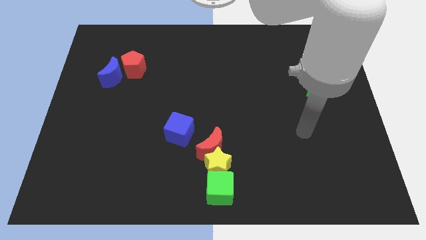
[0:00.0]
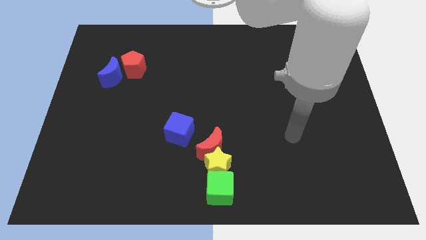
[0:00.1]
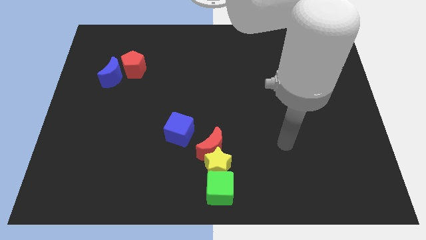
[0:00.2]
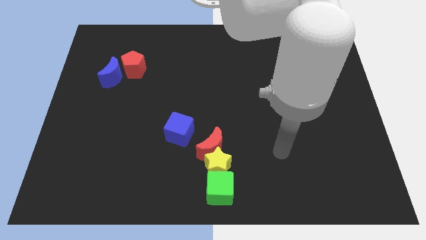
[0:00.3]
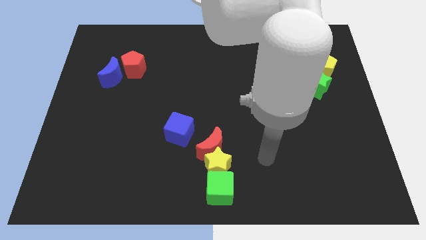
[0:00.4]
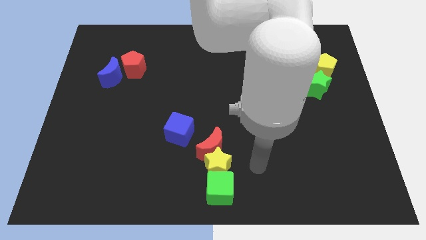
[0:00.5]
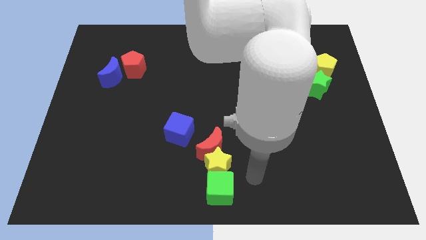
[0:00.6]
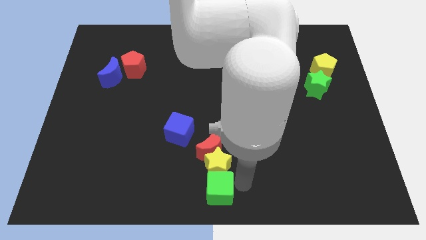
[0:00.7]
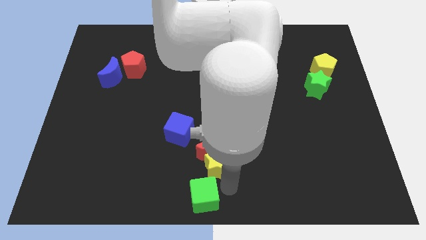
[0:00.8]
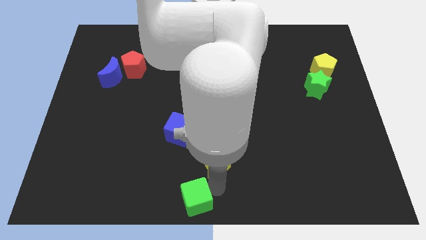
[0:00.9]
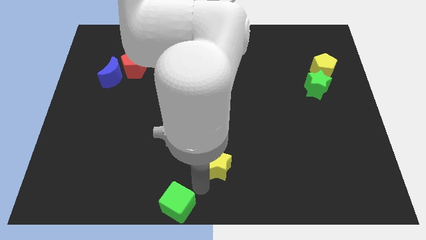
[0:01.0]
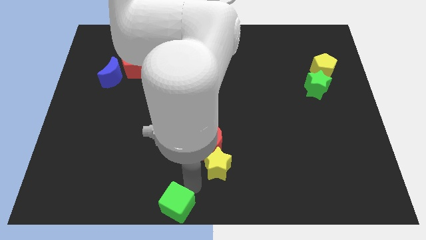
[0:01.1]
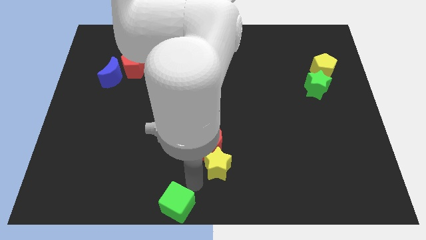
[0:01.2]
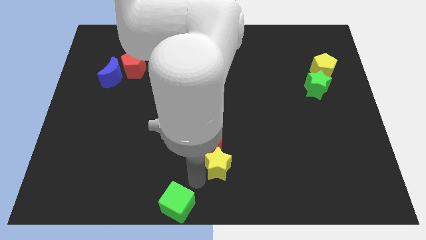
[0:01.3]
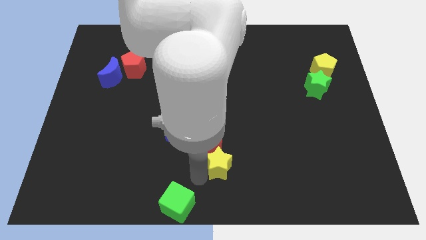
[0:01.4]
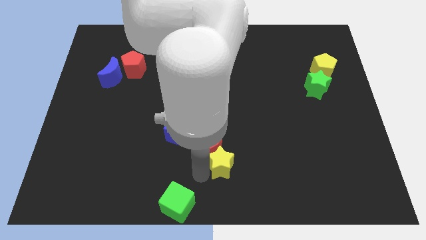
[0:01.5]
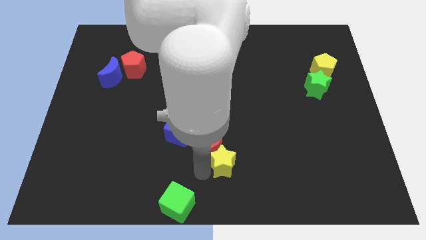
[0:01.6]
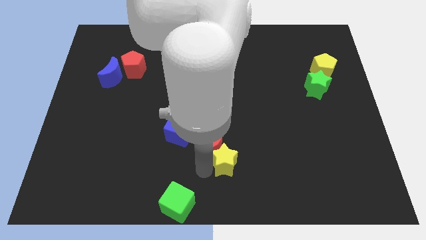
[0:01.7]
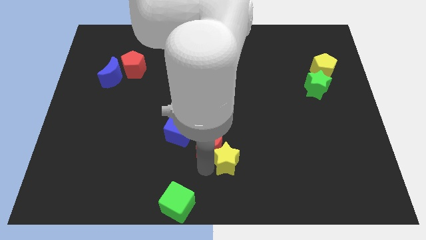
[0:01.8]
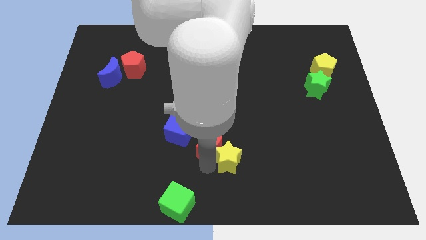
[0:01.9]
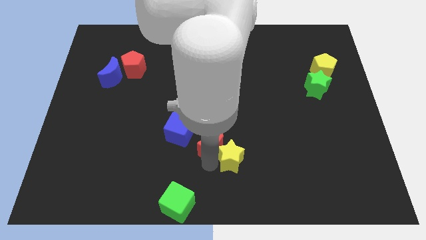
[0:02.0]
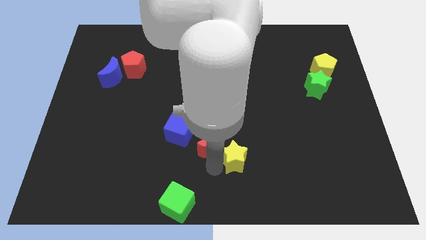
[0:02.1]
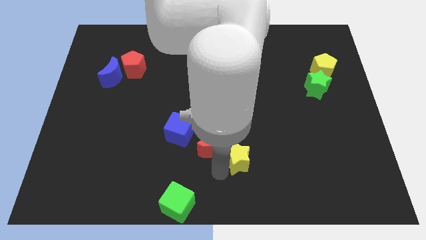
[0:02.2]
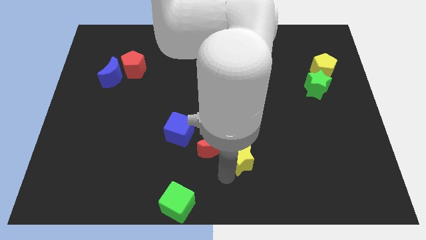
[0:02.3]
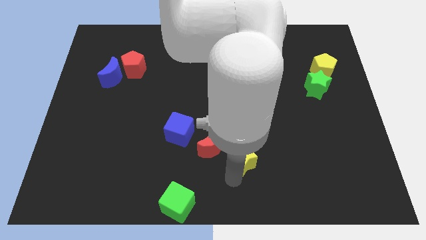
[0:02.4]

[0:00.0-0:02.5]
separate the yellow star from the red moon and green cube

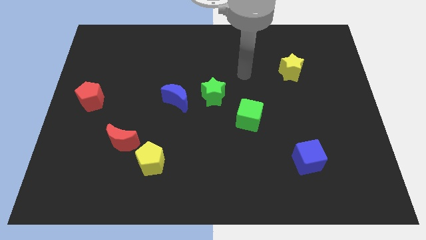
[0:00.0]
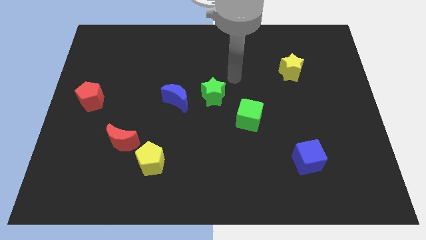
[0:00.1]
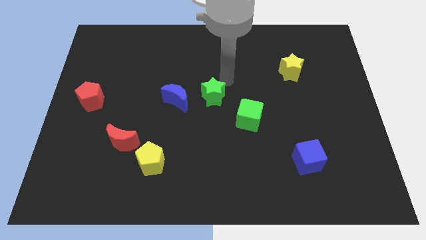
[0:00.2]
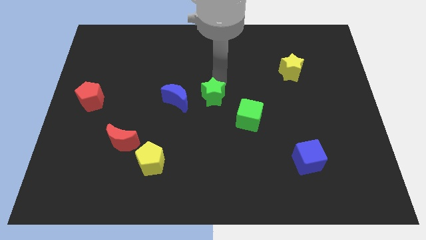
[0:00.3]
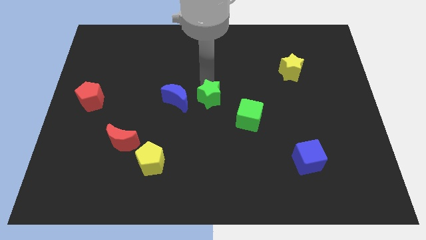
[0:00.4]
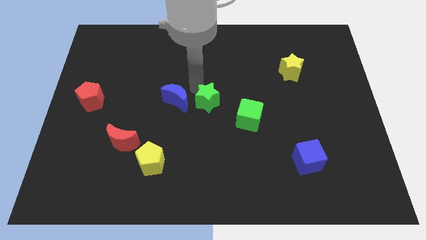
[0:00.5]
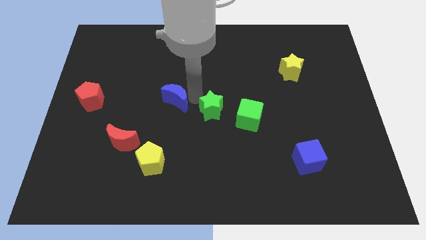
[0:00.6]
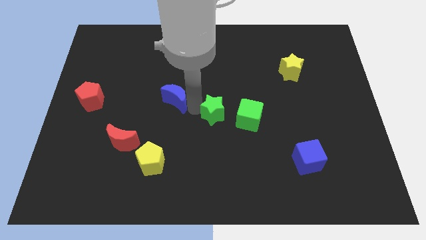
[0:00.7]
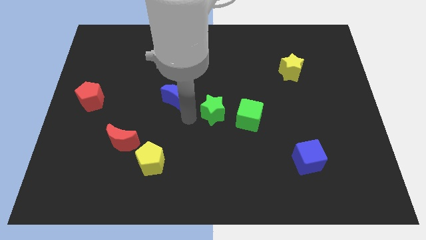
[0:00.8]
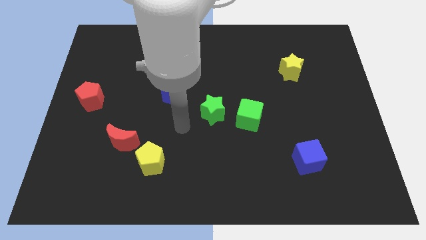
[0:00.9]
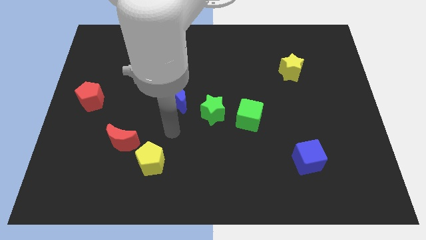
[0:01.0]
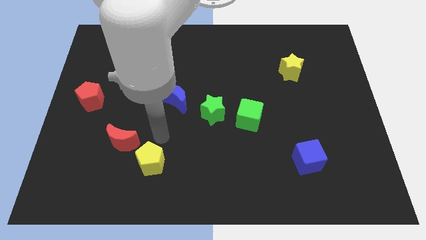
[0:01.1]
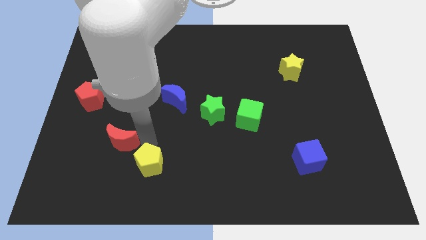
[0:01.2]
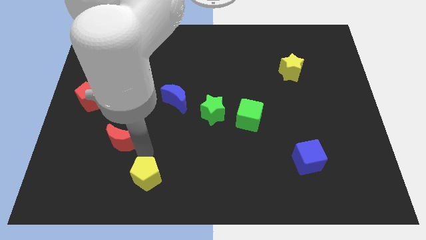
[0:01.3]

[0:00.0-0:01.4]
move the red moon away from the yellow pentagon

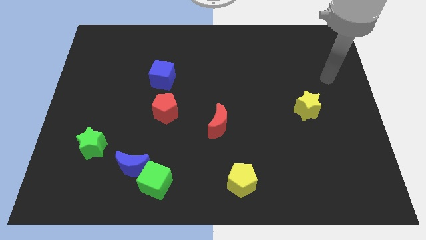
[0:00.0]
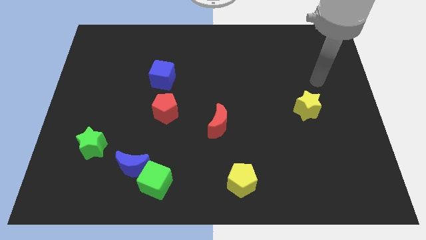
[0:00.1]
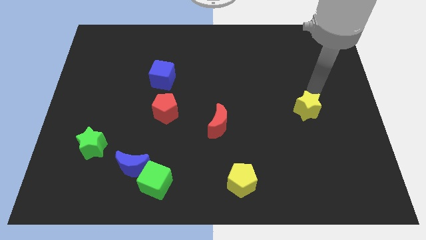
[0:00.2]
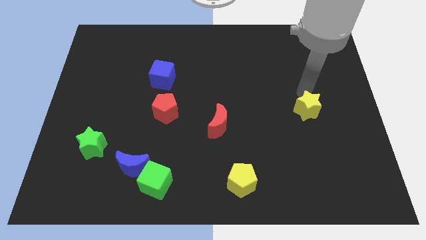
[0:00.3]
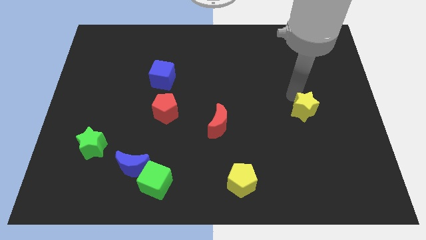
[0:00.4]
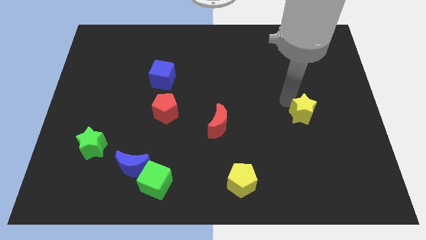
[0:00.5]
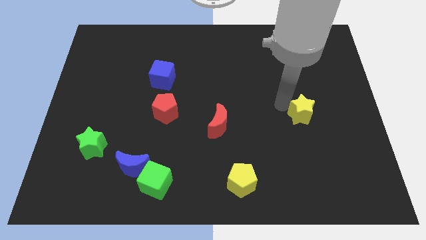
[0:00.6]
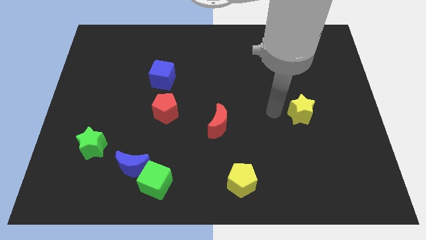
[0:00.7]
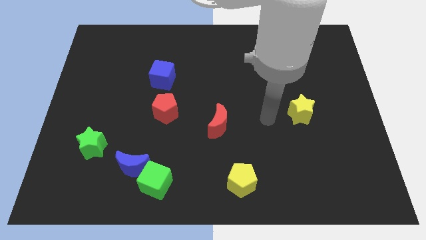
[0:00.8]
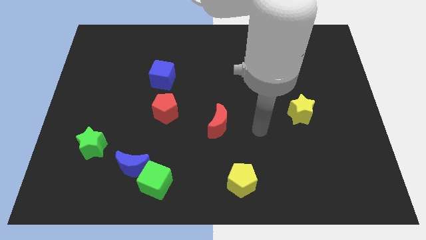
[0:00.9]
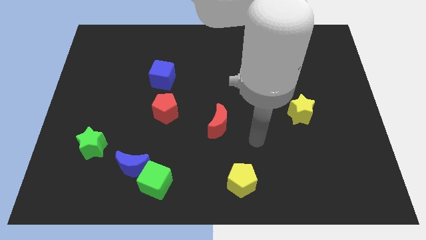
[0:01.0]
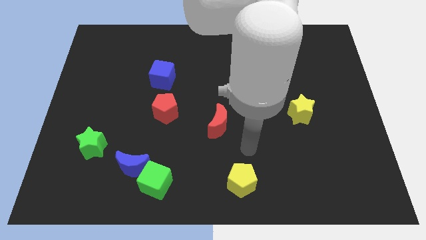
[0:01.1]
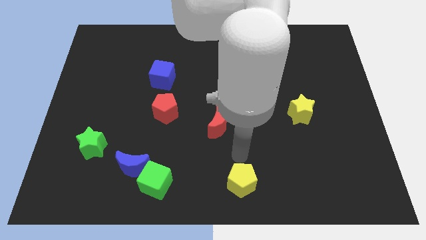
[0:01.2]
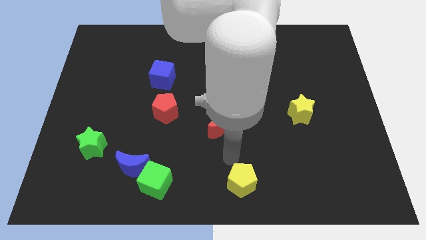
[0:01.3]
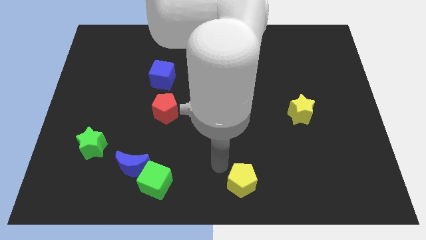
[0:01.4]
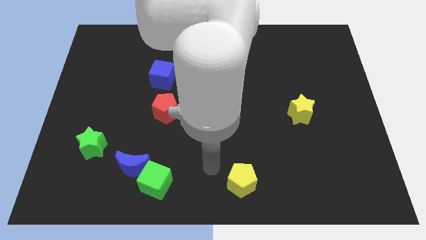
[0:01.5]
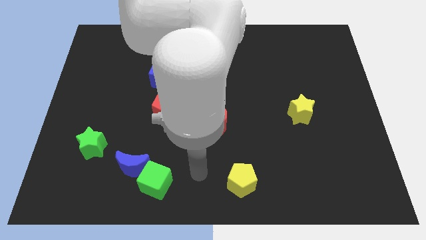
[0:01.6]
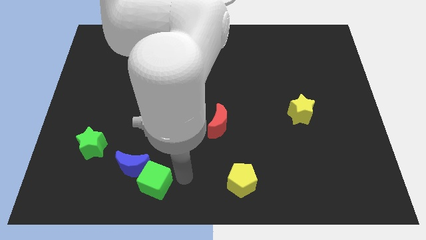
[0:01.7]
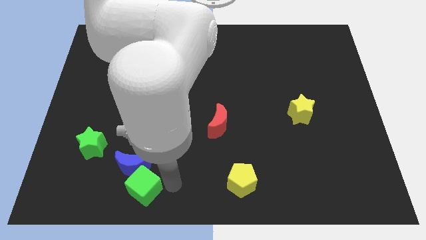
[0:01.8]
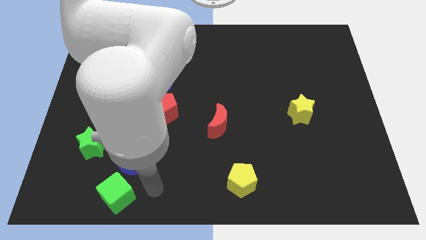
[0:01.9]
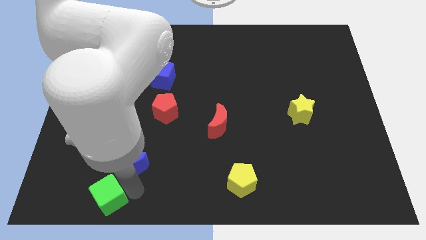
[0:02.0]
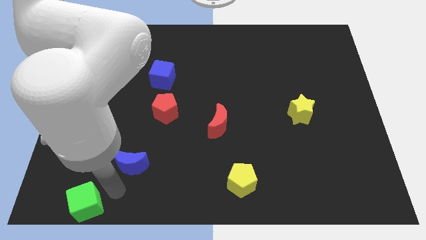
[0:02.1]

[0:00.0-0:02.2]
pull the blue moon apart from the green cube

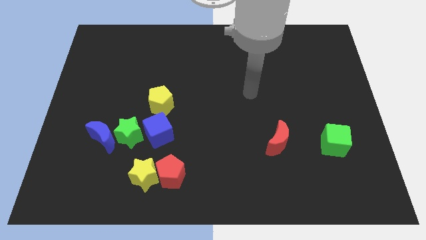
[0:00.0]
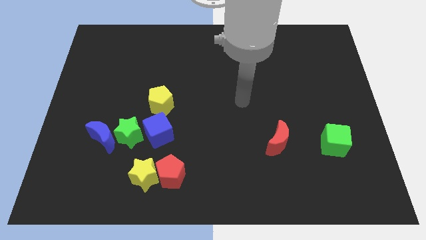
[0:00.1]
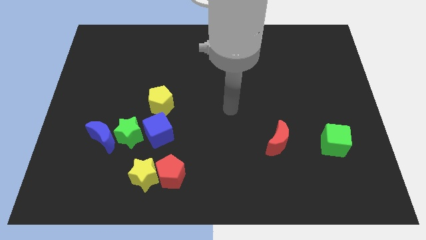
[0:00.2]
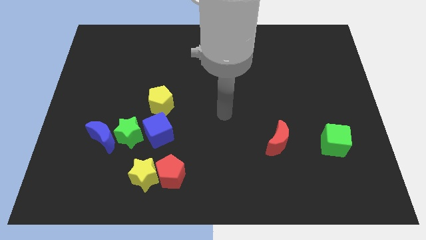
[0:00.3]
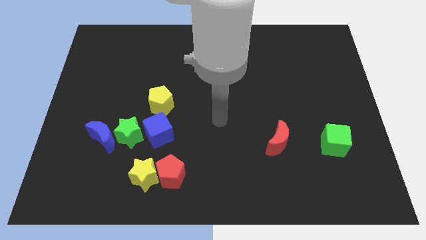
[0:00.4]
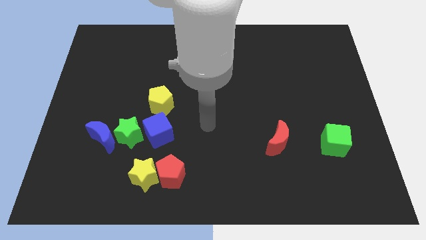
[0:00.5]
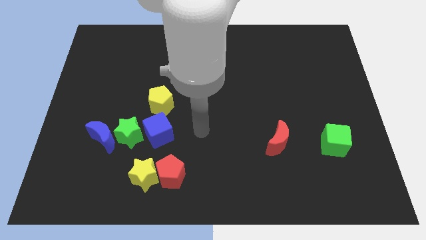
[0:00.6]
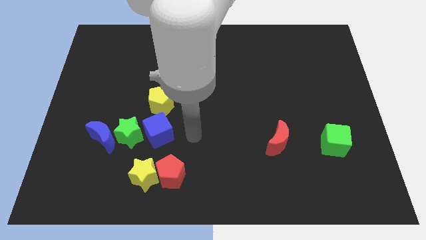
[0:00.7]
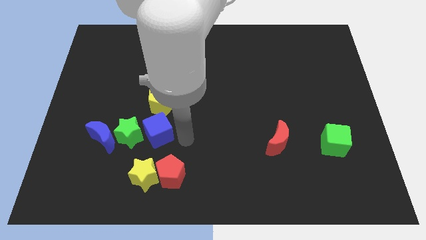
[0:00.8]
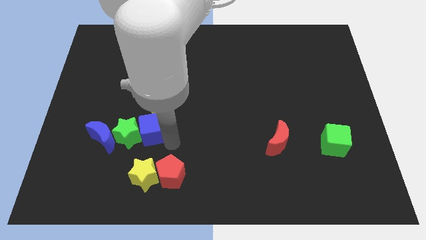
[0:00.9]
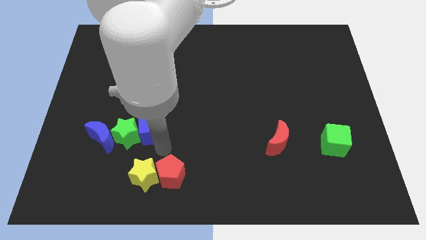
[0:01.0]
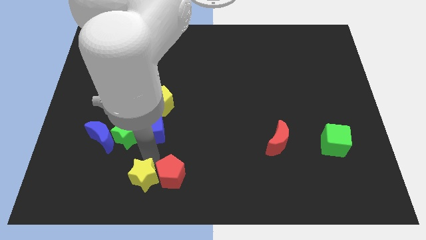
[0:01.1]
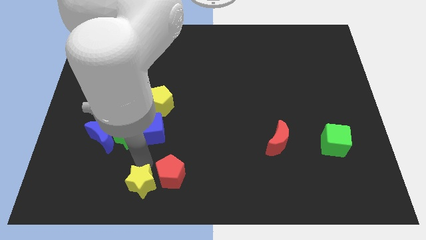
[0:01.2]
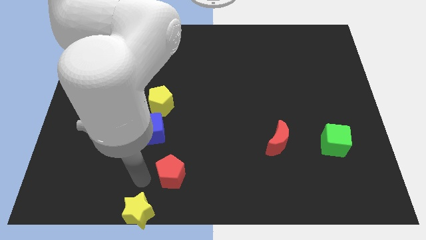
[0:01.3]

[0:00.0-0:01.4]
separate the red pentagon from the yellow star

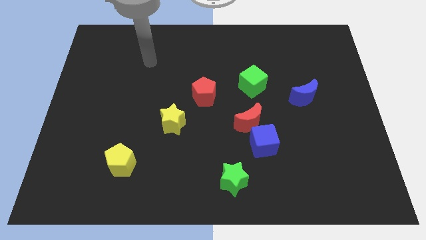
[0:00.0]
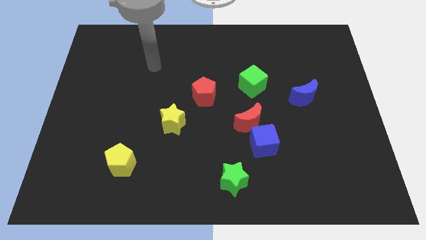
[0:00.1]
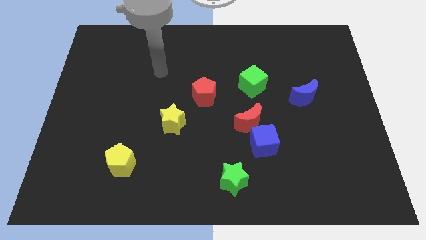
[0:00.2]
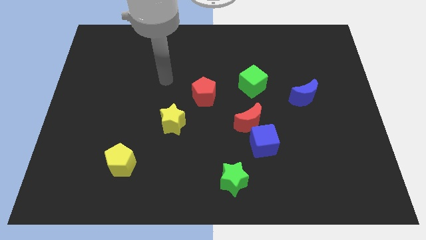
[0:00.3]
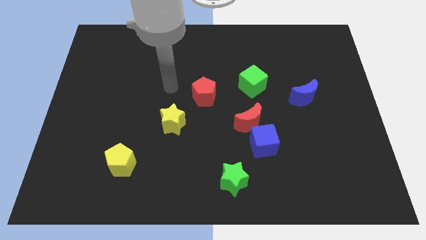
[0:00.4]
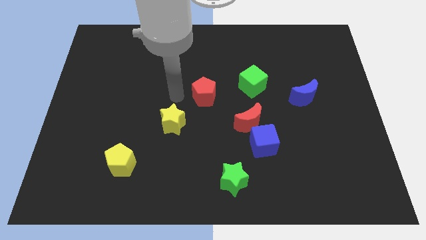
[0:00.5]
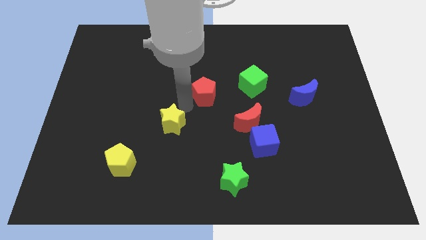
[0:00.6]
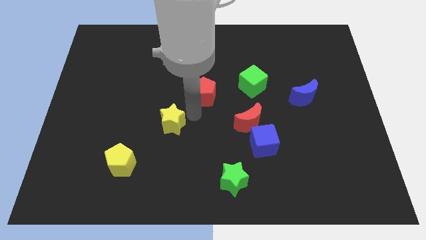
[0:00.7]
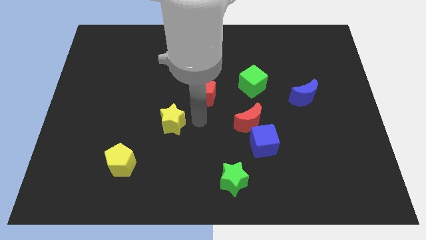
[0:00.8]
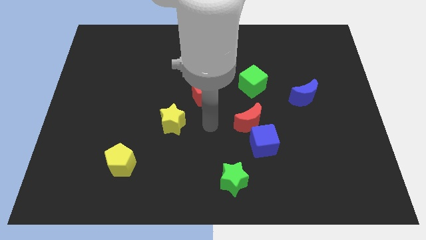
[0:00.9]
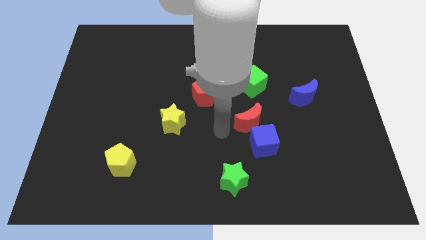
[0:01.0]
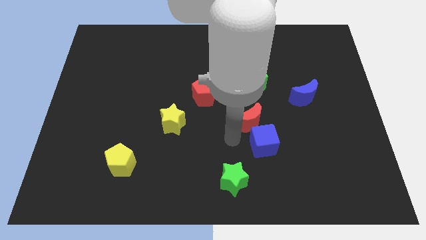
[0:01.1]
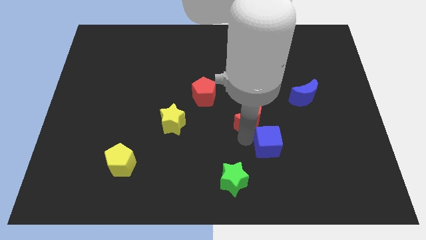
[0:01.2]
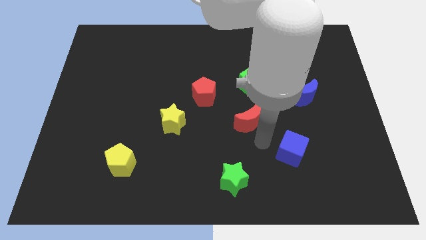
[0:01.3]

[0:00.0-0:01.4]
move the red moon away from the blue cube

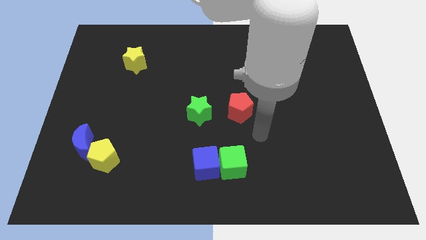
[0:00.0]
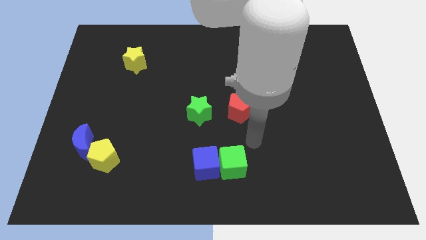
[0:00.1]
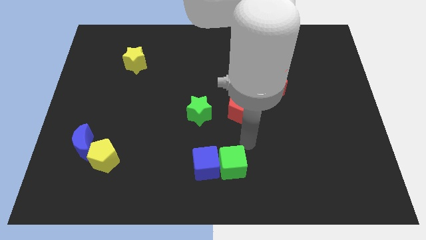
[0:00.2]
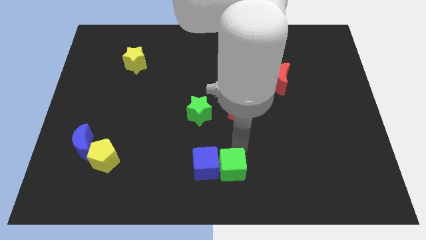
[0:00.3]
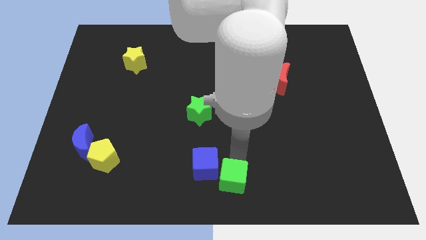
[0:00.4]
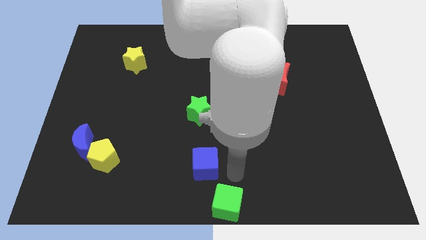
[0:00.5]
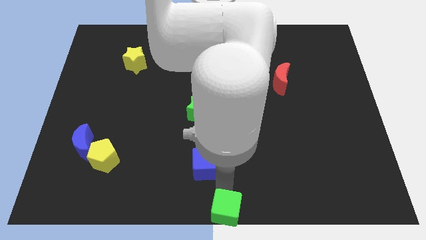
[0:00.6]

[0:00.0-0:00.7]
separate the blue cube from the green cube
